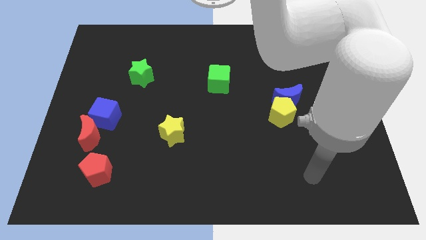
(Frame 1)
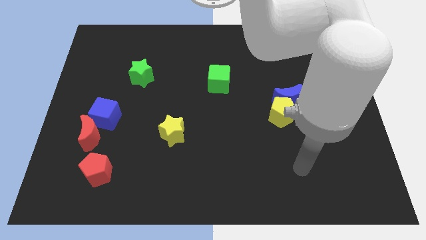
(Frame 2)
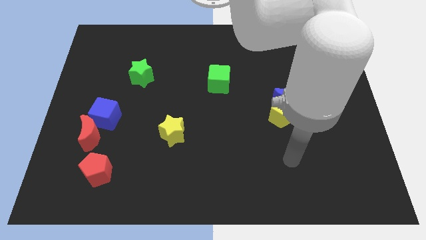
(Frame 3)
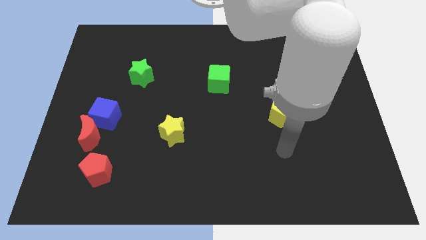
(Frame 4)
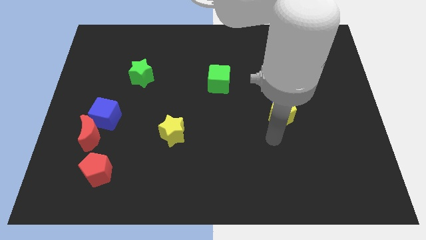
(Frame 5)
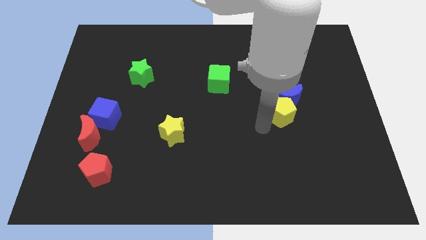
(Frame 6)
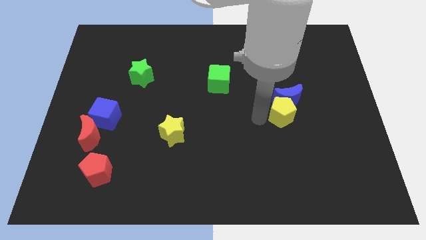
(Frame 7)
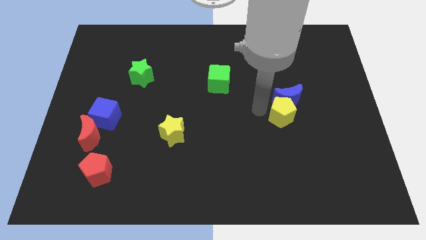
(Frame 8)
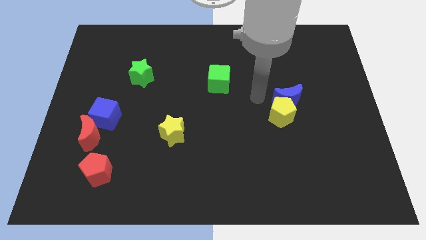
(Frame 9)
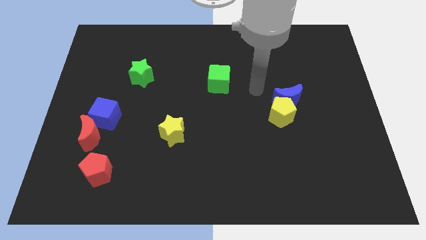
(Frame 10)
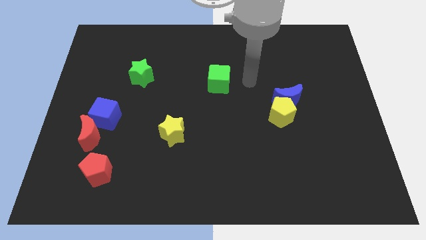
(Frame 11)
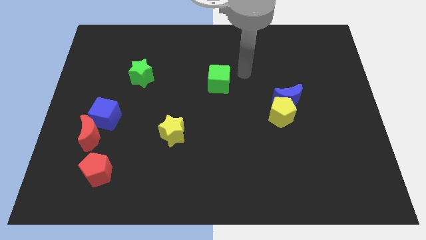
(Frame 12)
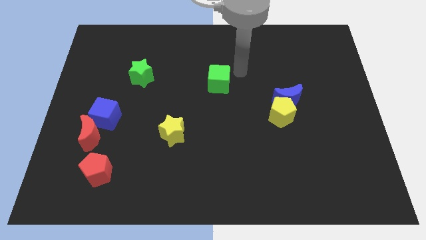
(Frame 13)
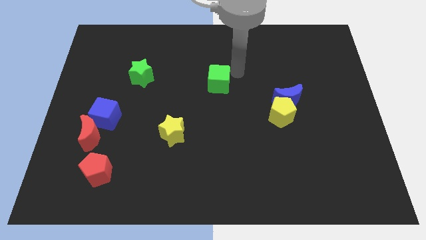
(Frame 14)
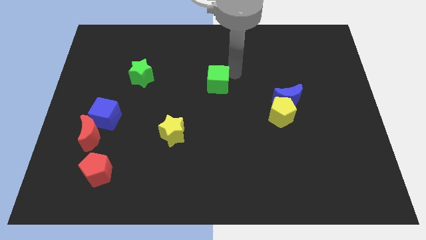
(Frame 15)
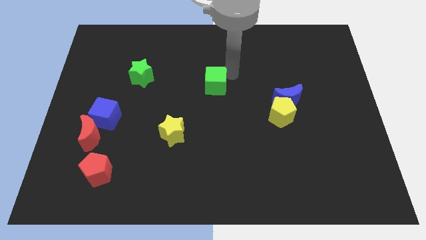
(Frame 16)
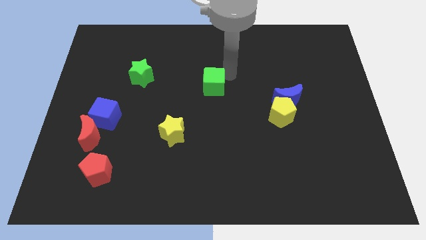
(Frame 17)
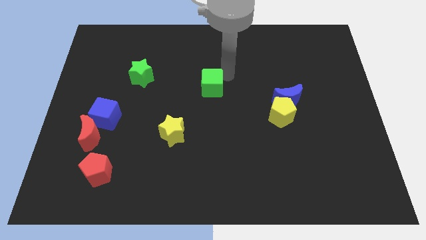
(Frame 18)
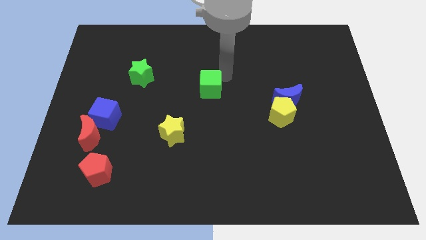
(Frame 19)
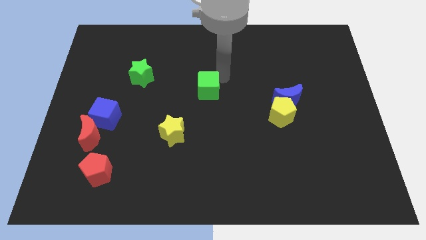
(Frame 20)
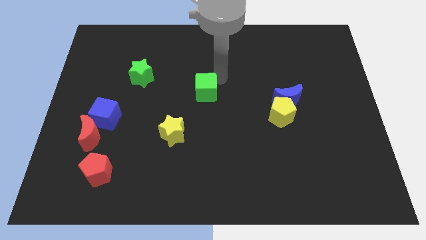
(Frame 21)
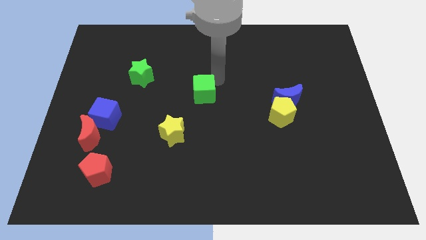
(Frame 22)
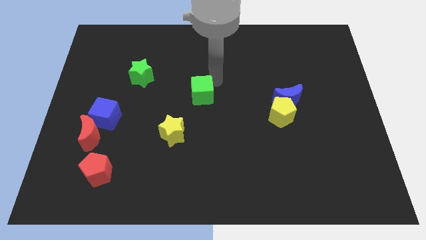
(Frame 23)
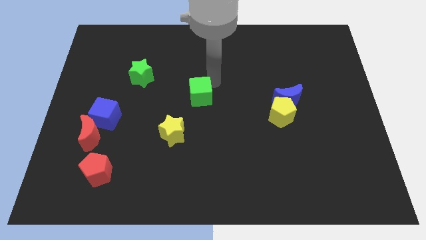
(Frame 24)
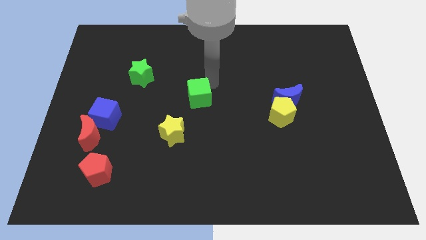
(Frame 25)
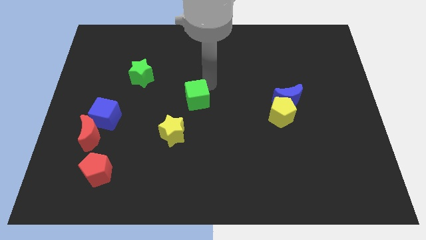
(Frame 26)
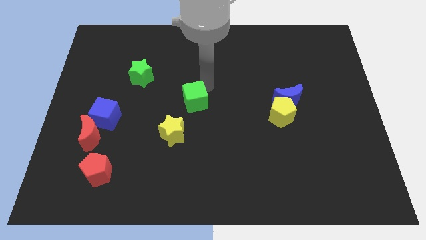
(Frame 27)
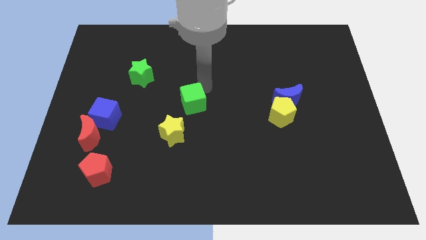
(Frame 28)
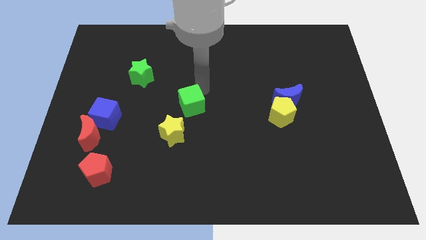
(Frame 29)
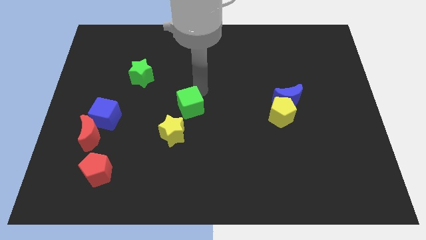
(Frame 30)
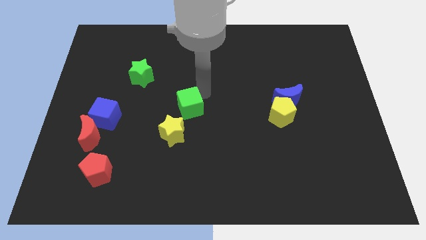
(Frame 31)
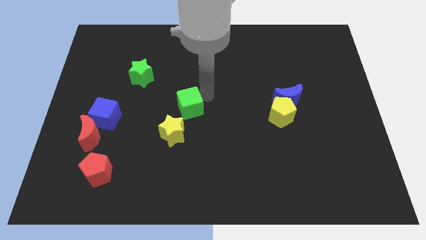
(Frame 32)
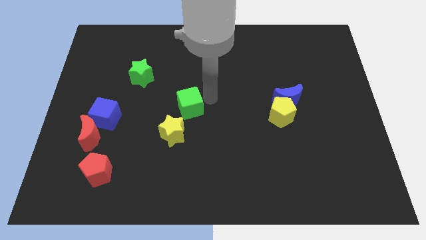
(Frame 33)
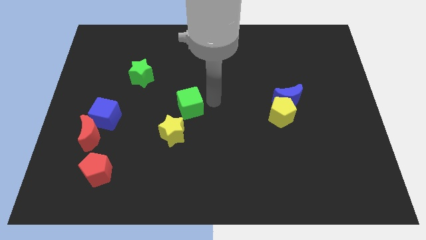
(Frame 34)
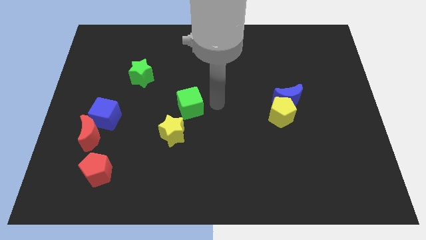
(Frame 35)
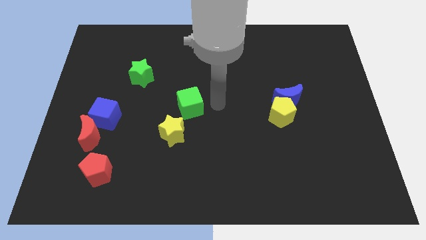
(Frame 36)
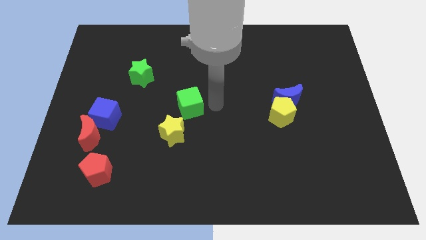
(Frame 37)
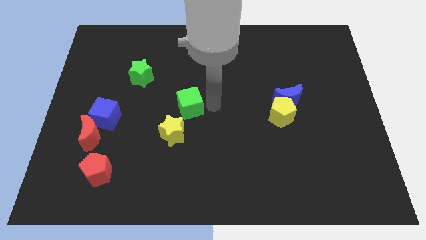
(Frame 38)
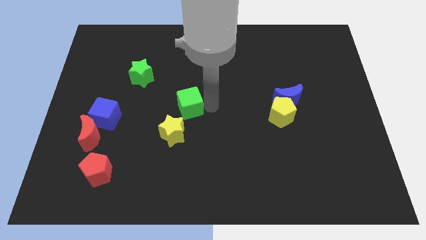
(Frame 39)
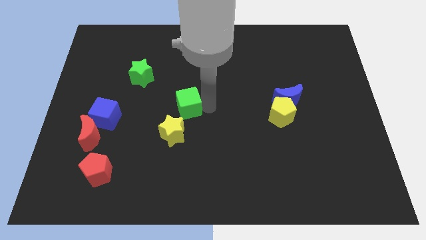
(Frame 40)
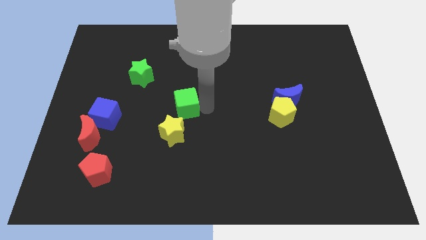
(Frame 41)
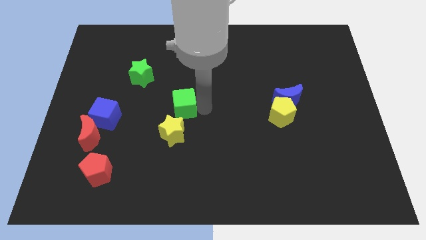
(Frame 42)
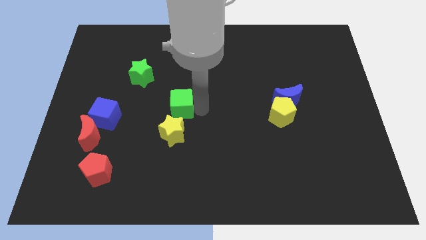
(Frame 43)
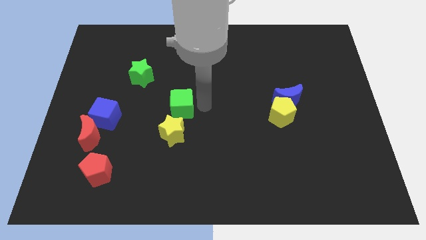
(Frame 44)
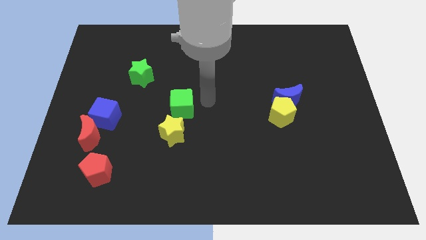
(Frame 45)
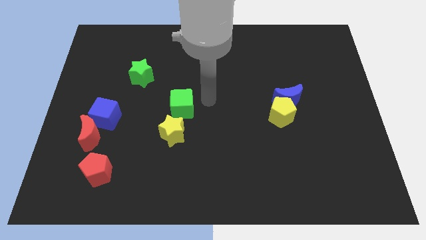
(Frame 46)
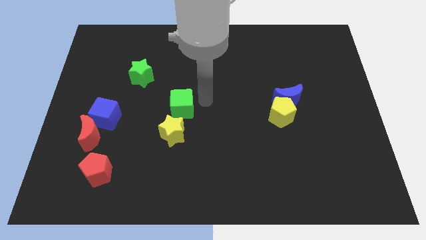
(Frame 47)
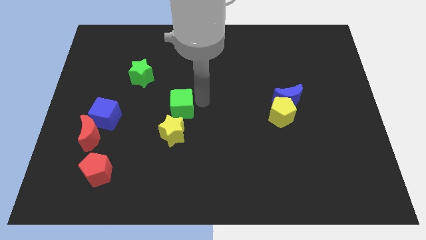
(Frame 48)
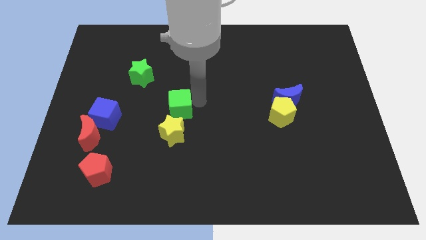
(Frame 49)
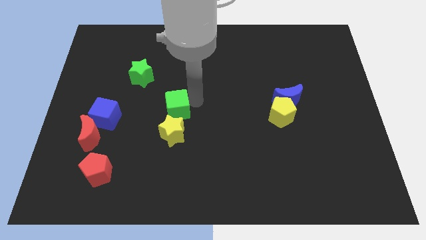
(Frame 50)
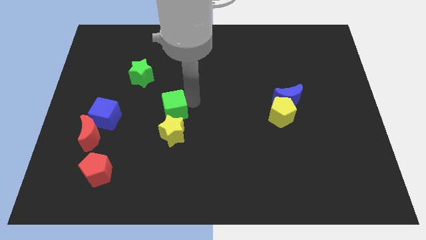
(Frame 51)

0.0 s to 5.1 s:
put the green cube diagonally up and to the left of the yellow star

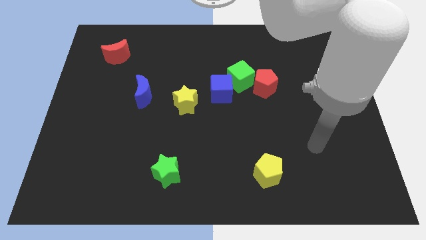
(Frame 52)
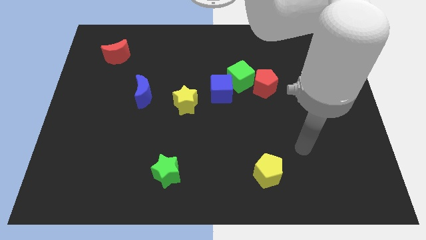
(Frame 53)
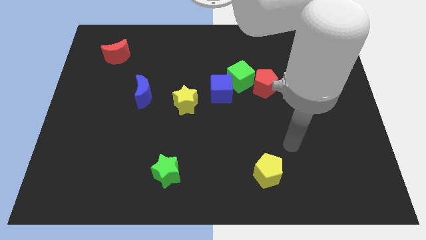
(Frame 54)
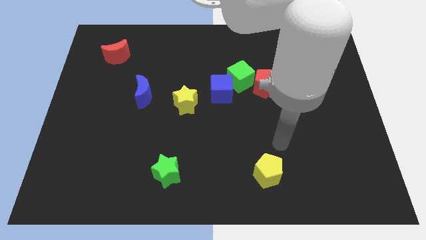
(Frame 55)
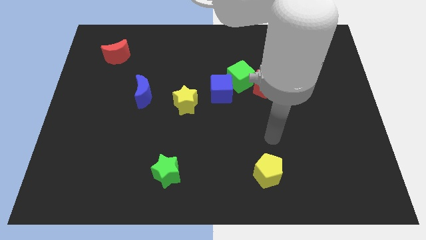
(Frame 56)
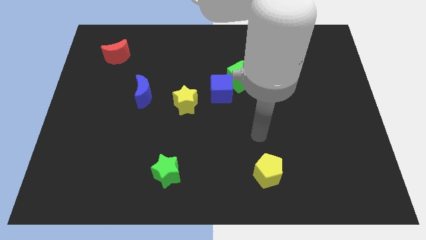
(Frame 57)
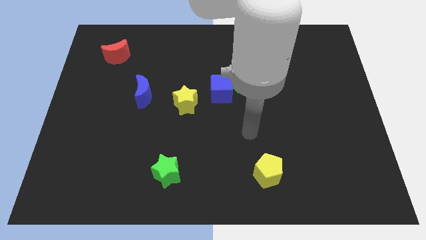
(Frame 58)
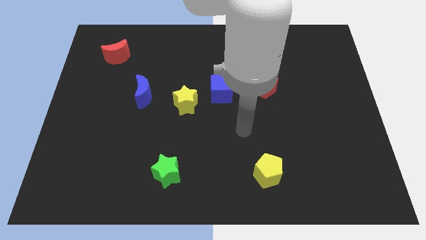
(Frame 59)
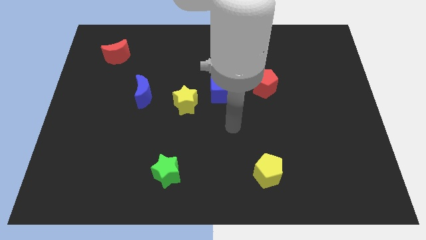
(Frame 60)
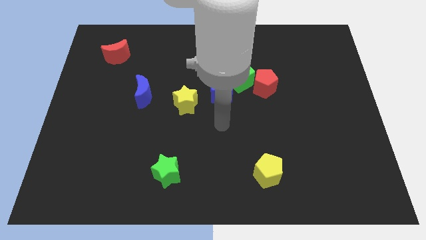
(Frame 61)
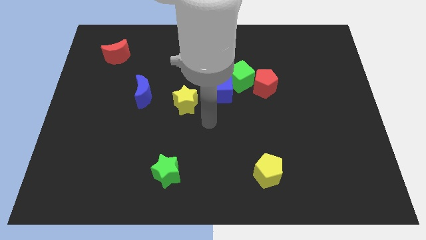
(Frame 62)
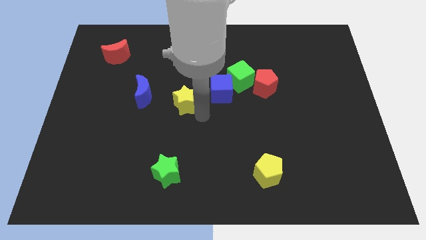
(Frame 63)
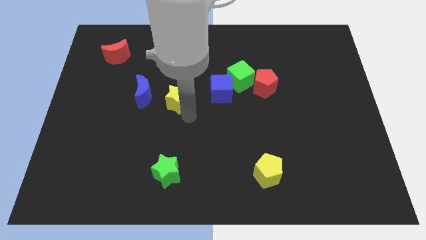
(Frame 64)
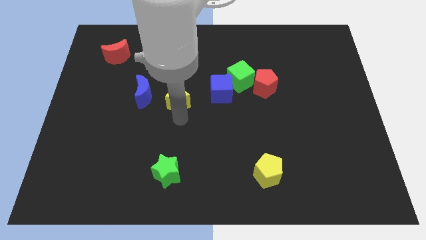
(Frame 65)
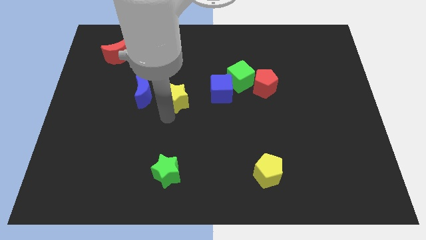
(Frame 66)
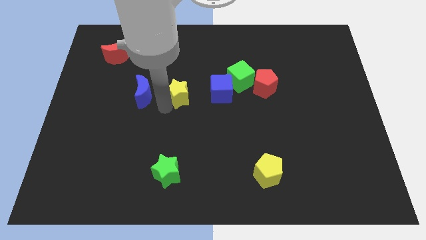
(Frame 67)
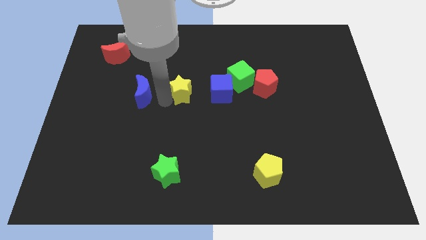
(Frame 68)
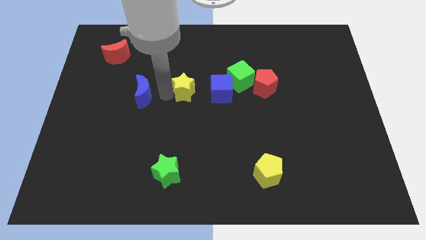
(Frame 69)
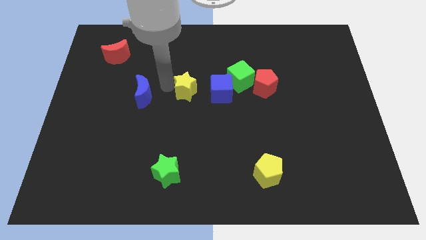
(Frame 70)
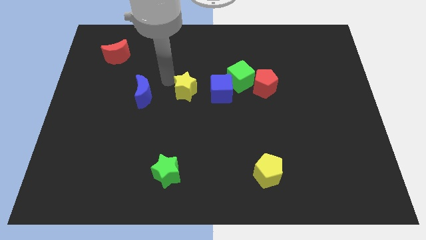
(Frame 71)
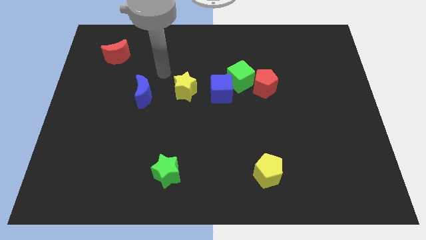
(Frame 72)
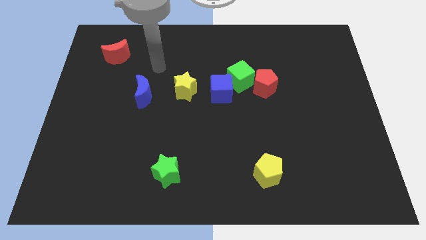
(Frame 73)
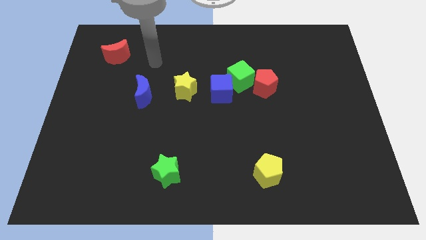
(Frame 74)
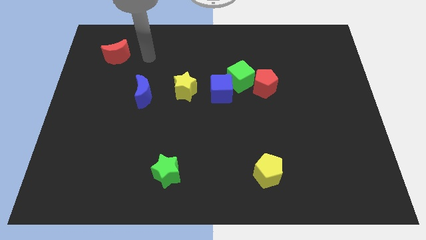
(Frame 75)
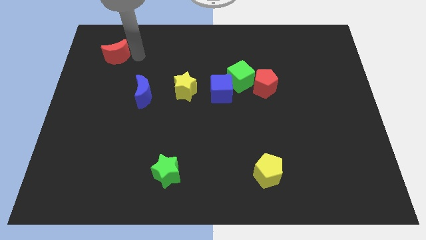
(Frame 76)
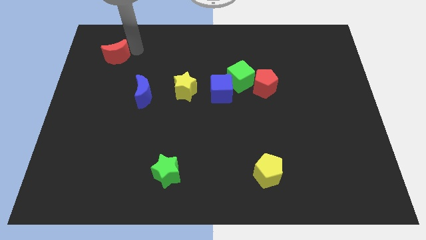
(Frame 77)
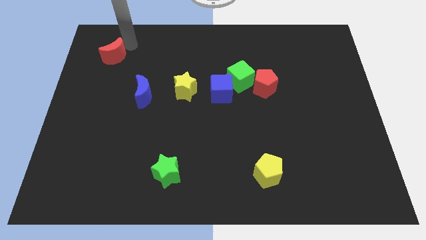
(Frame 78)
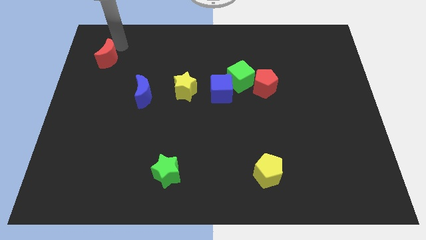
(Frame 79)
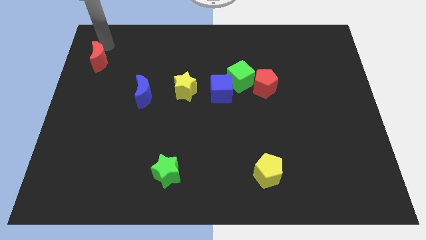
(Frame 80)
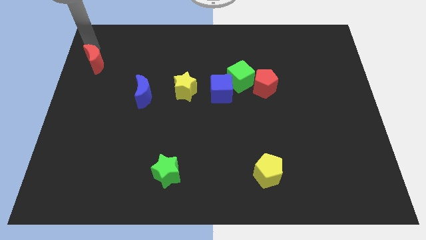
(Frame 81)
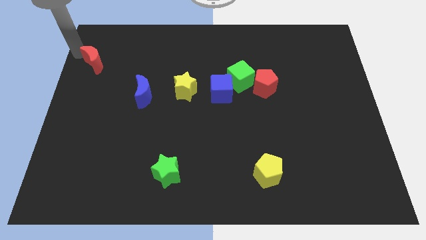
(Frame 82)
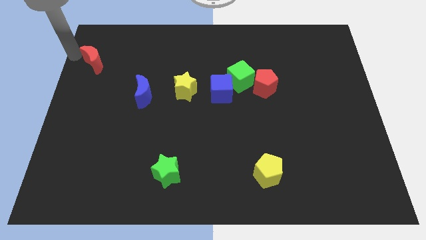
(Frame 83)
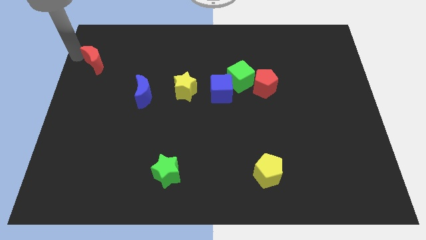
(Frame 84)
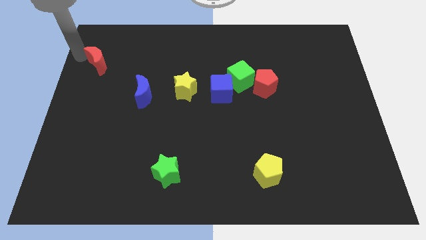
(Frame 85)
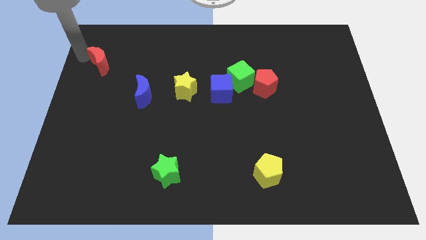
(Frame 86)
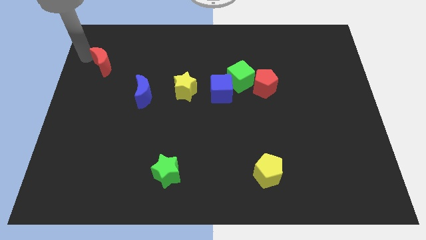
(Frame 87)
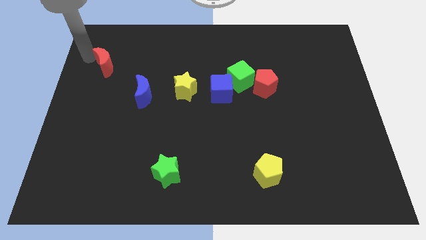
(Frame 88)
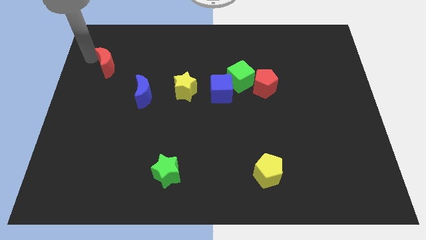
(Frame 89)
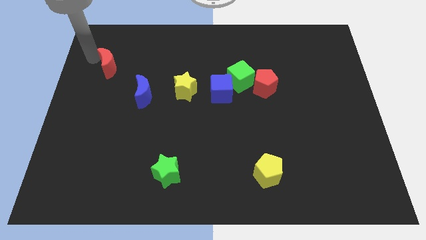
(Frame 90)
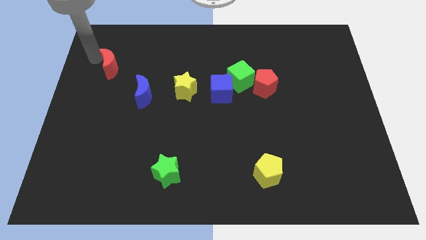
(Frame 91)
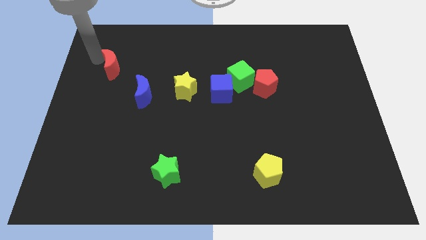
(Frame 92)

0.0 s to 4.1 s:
slide the red moon diagonally up and to the left of the blue moon
